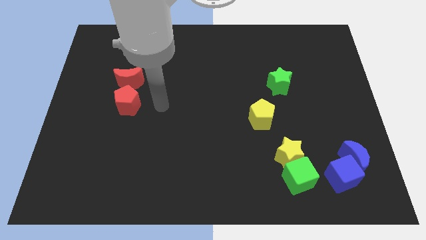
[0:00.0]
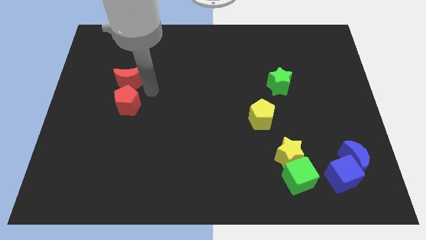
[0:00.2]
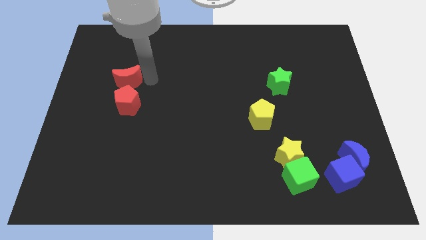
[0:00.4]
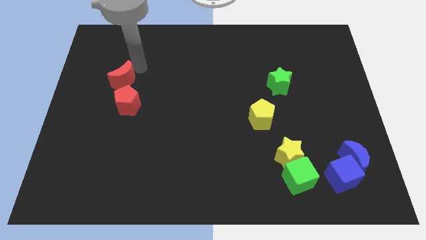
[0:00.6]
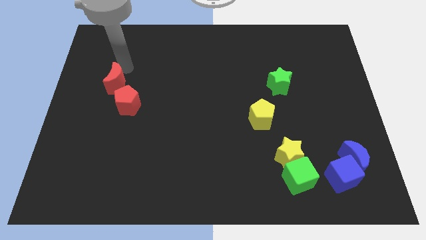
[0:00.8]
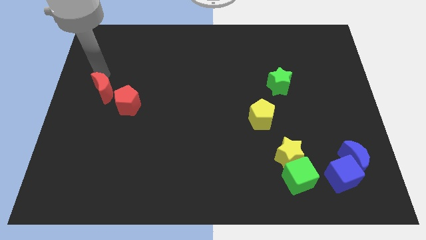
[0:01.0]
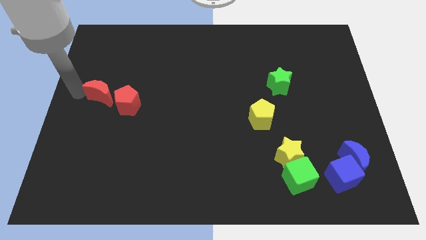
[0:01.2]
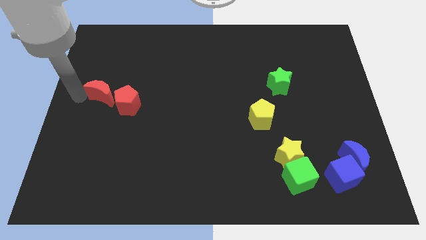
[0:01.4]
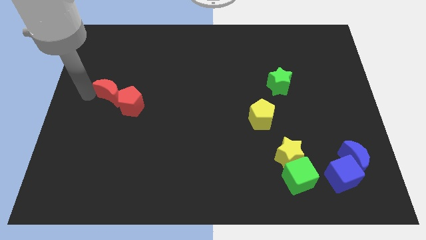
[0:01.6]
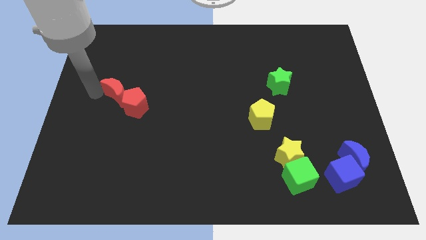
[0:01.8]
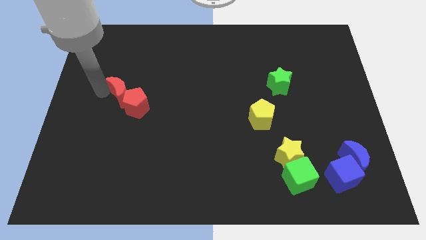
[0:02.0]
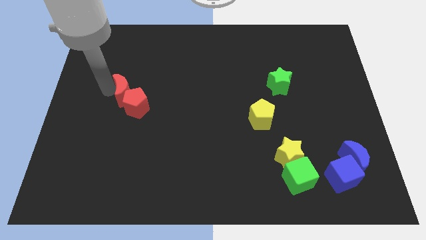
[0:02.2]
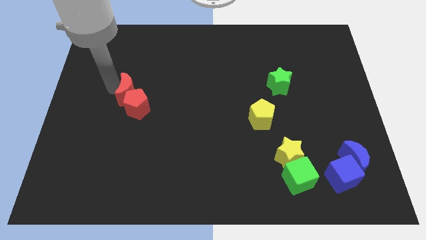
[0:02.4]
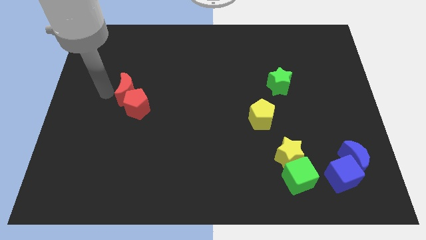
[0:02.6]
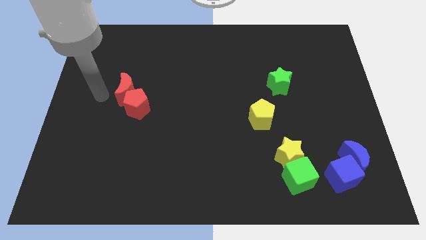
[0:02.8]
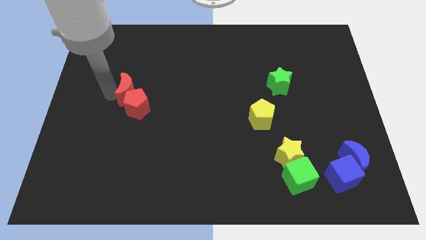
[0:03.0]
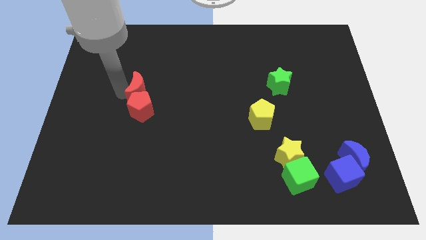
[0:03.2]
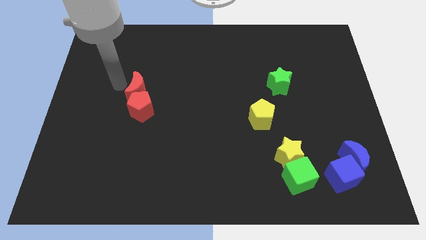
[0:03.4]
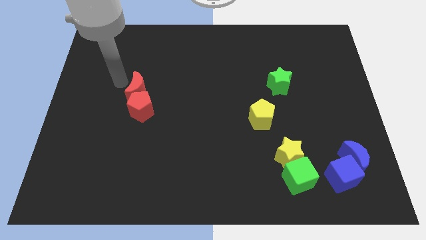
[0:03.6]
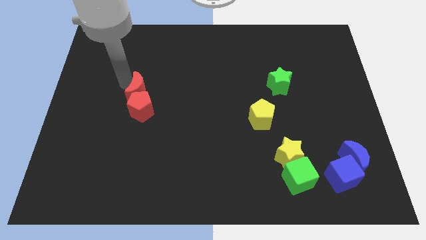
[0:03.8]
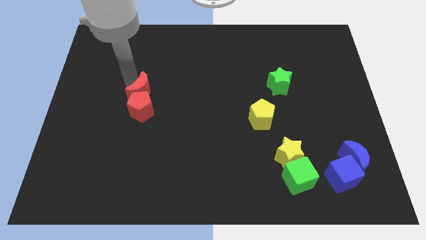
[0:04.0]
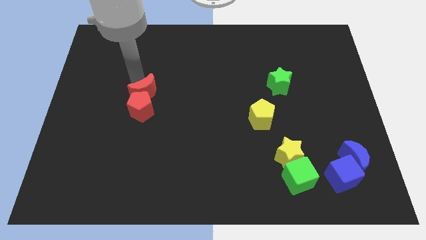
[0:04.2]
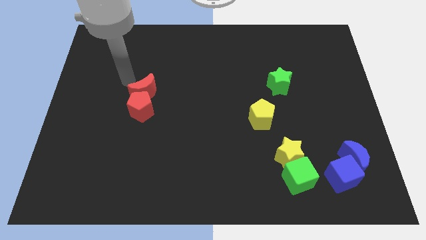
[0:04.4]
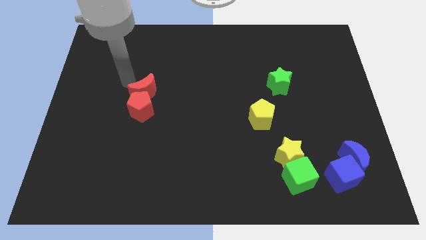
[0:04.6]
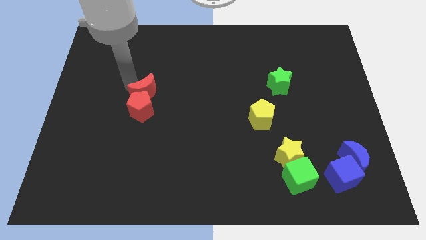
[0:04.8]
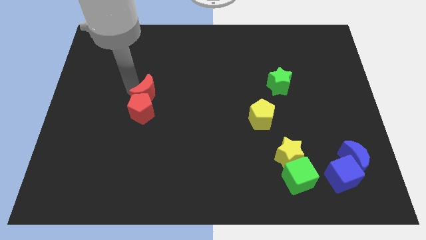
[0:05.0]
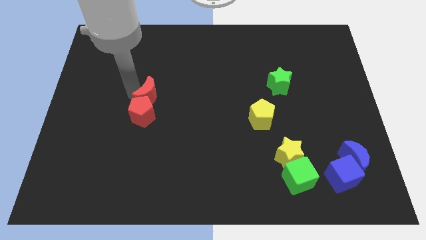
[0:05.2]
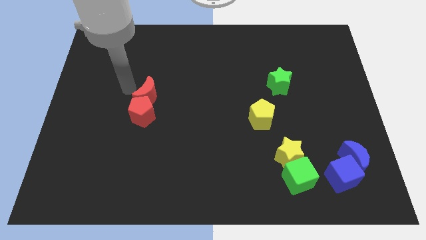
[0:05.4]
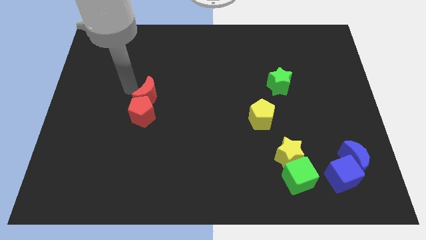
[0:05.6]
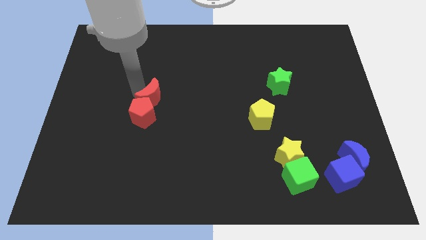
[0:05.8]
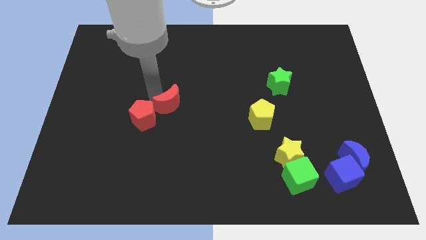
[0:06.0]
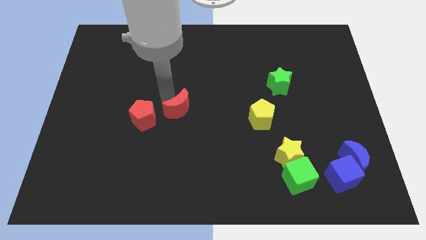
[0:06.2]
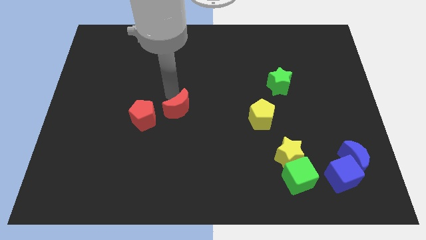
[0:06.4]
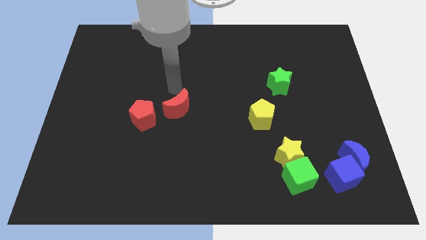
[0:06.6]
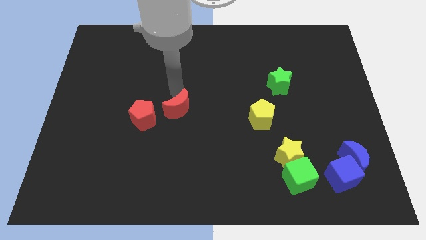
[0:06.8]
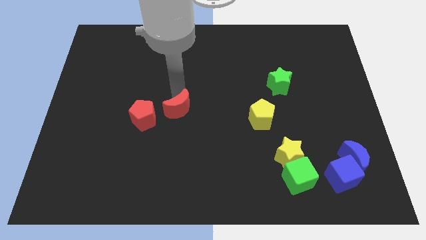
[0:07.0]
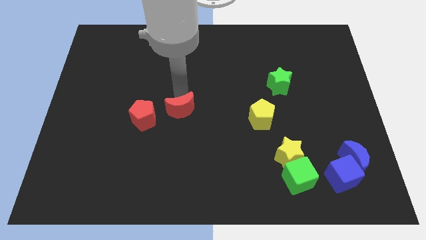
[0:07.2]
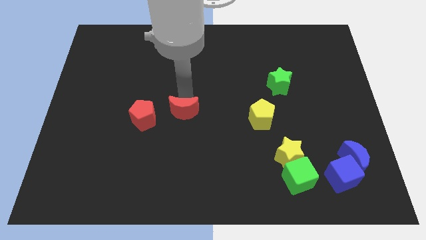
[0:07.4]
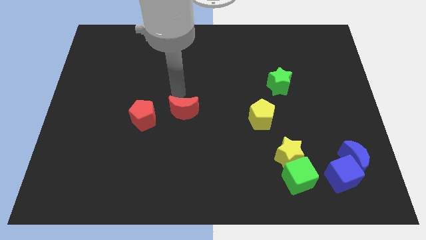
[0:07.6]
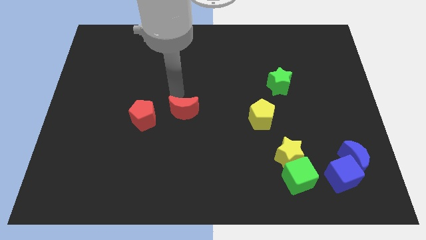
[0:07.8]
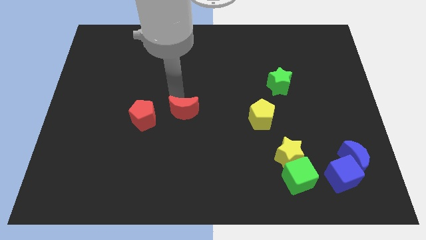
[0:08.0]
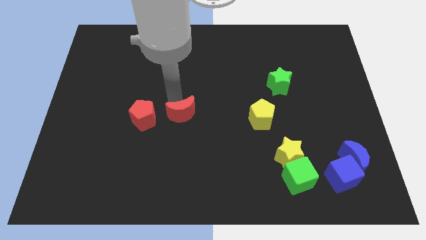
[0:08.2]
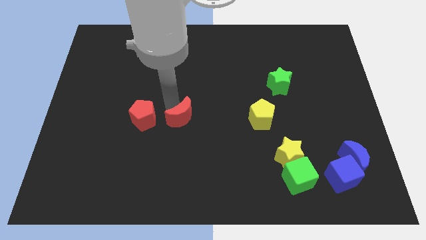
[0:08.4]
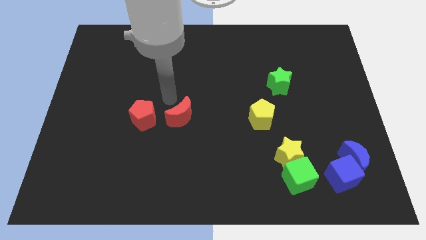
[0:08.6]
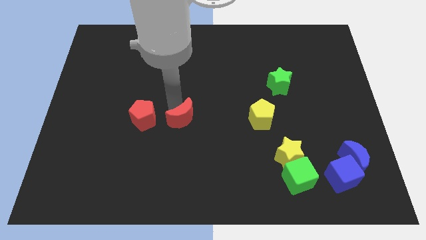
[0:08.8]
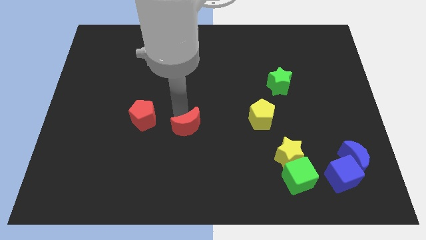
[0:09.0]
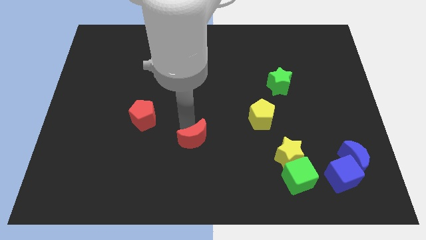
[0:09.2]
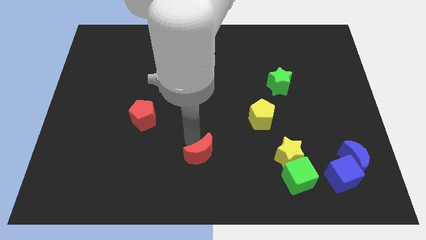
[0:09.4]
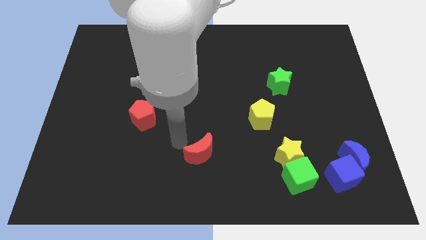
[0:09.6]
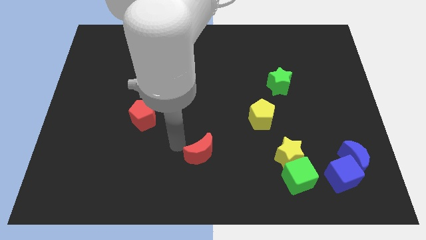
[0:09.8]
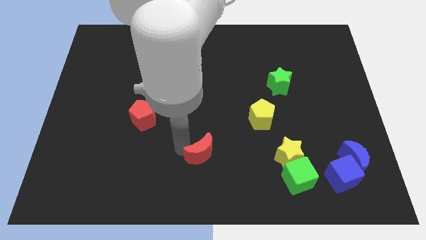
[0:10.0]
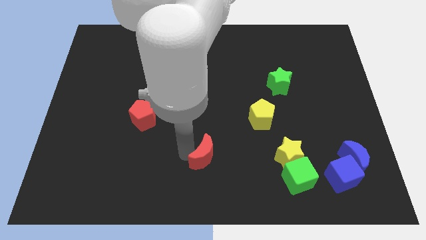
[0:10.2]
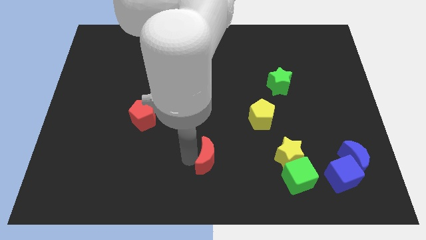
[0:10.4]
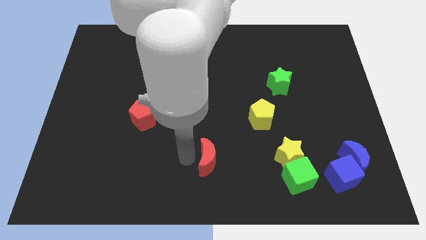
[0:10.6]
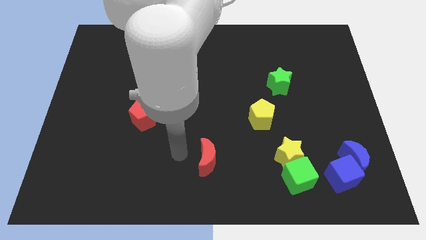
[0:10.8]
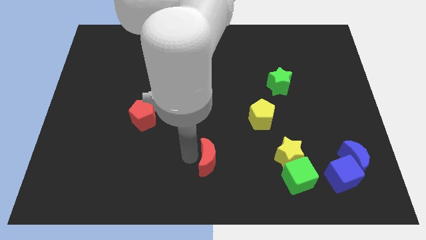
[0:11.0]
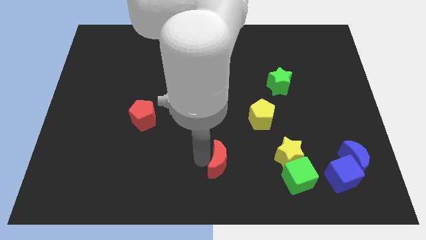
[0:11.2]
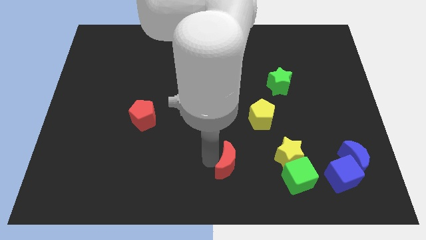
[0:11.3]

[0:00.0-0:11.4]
push the red moon left of the green cube

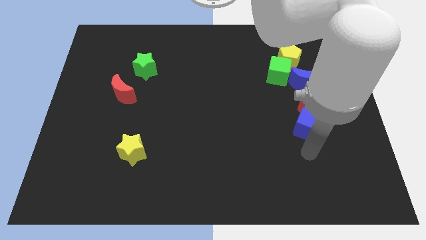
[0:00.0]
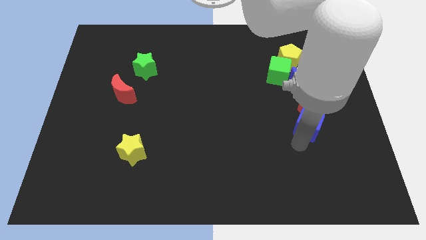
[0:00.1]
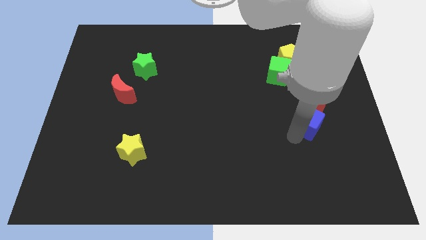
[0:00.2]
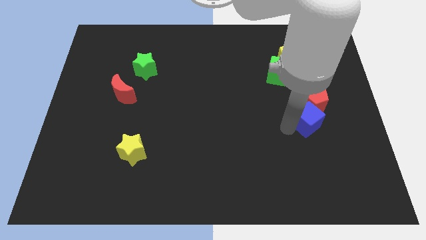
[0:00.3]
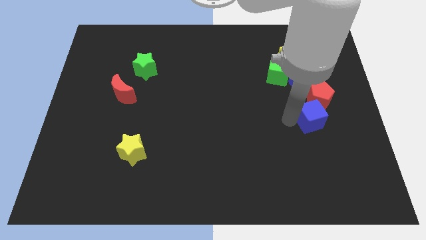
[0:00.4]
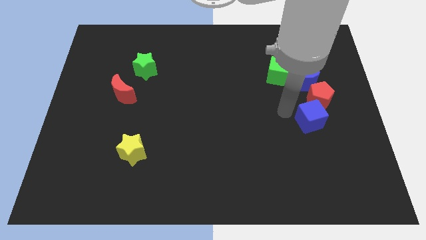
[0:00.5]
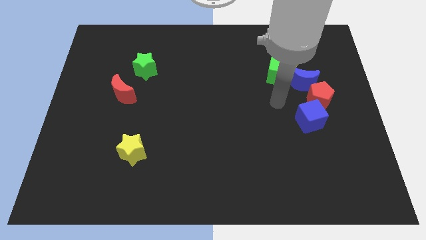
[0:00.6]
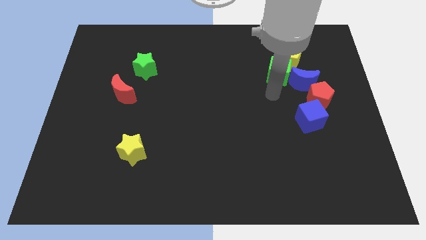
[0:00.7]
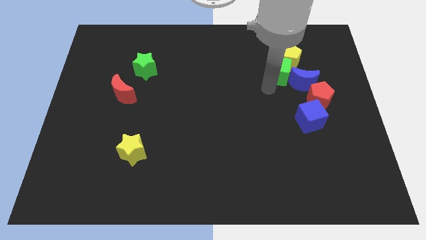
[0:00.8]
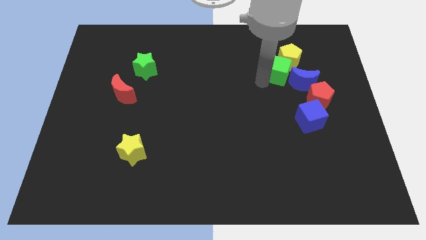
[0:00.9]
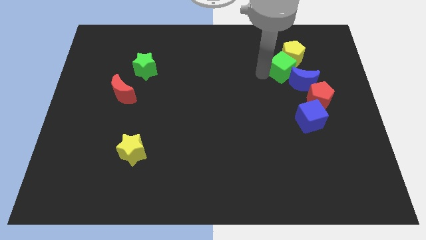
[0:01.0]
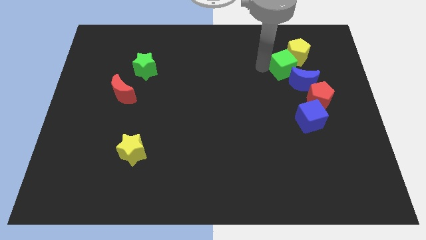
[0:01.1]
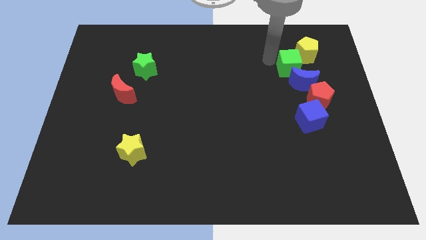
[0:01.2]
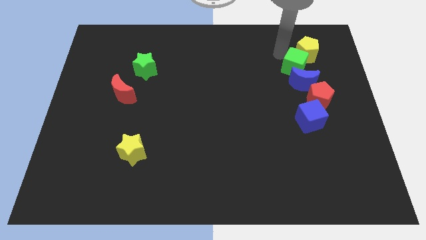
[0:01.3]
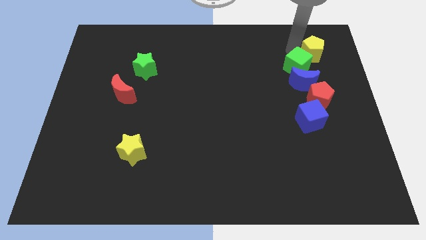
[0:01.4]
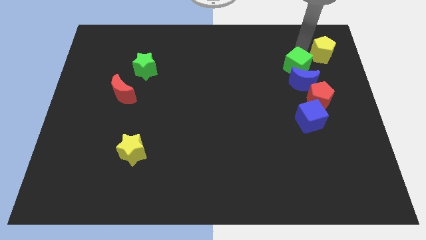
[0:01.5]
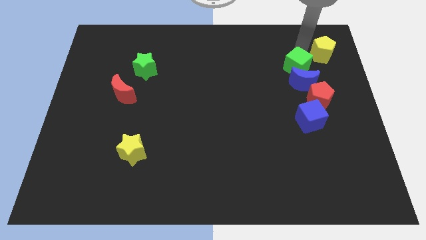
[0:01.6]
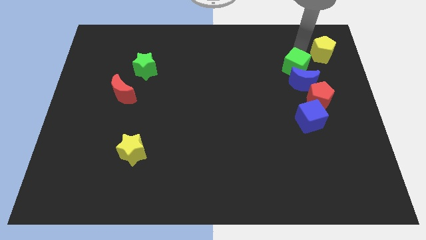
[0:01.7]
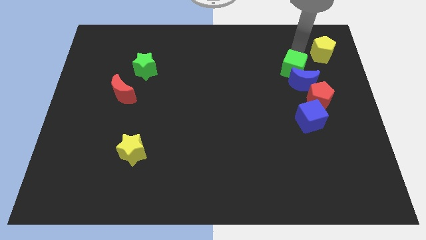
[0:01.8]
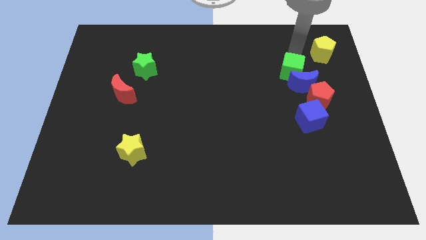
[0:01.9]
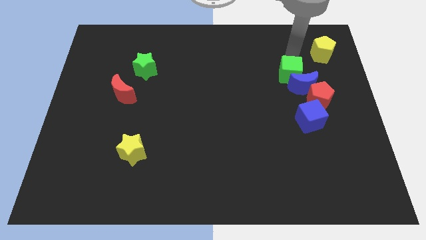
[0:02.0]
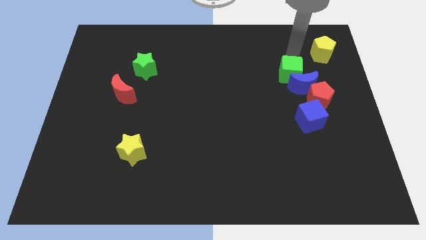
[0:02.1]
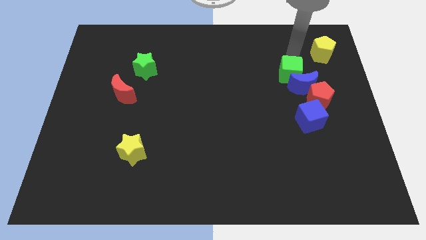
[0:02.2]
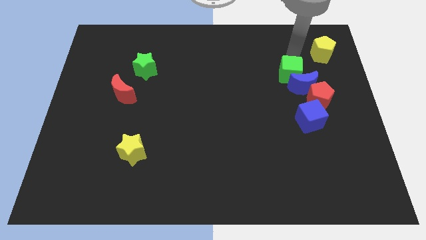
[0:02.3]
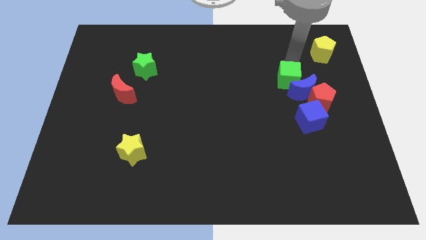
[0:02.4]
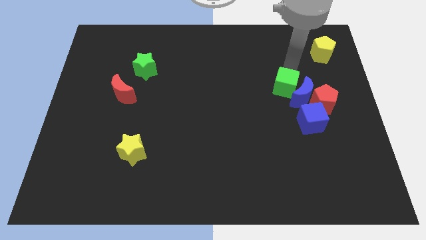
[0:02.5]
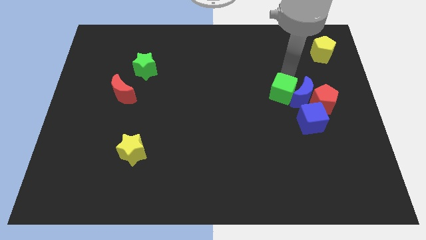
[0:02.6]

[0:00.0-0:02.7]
put the green cube diagonally down and to the left of the blue moon
